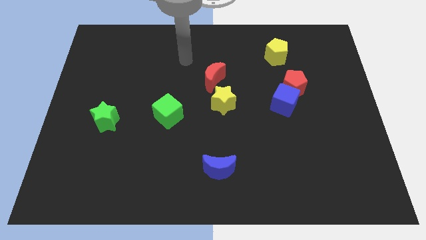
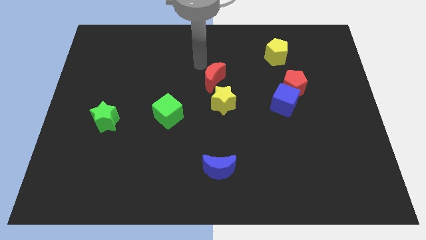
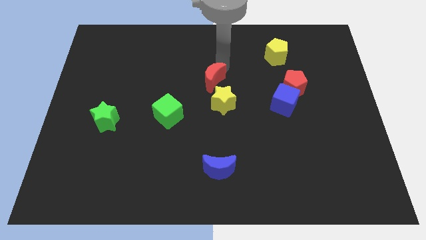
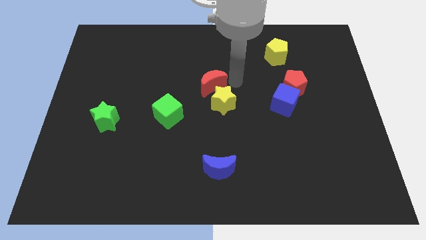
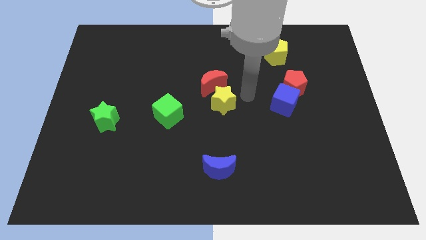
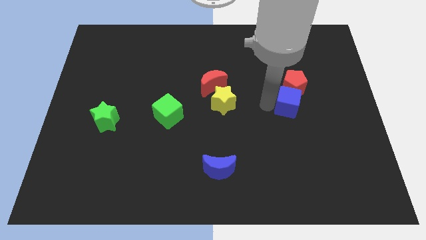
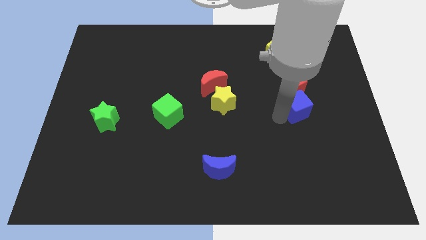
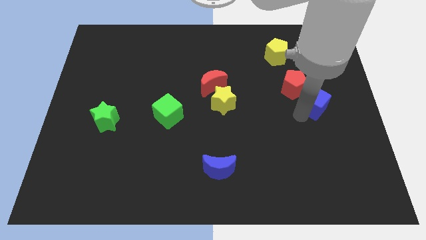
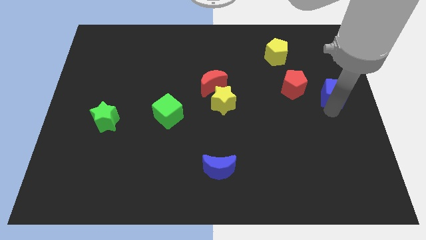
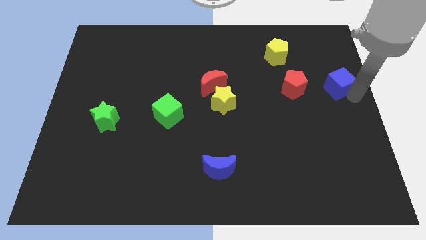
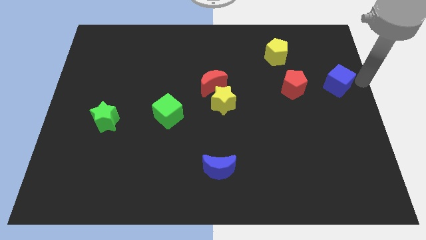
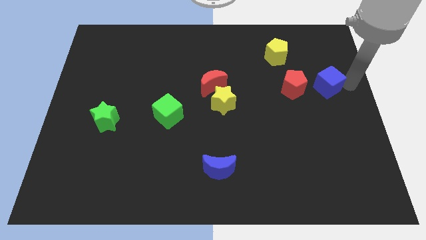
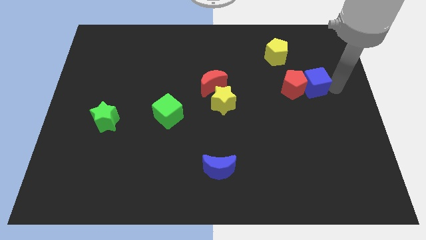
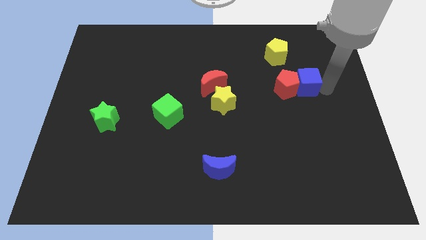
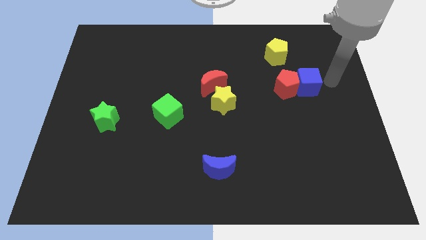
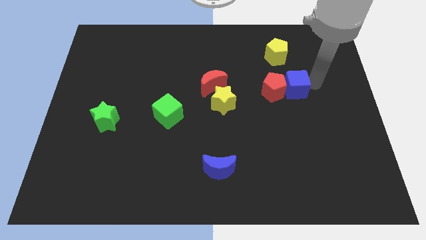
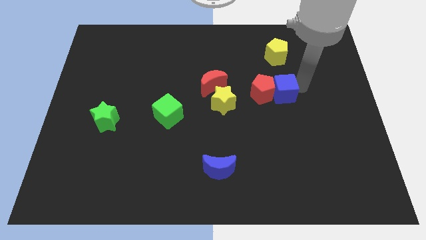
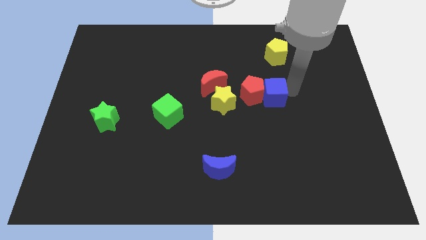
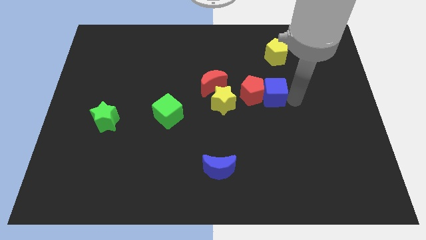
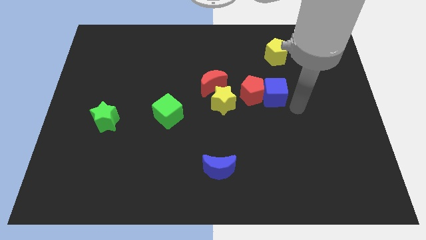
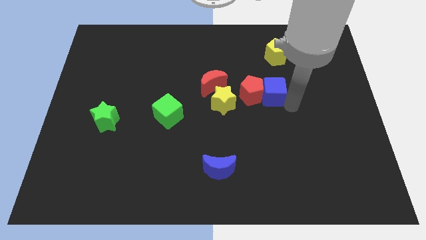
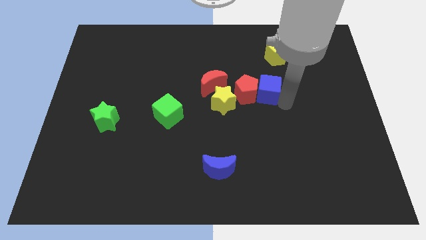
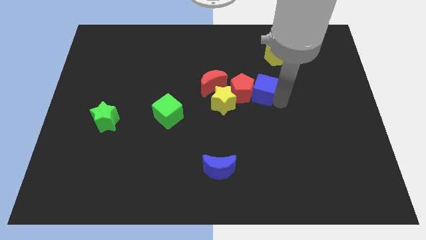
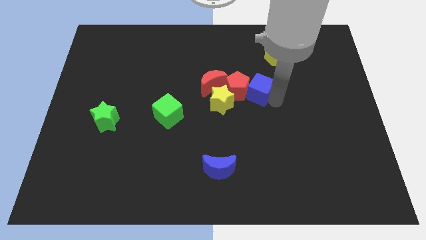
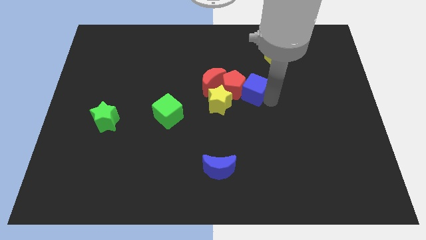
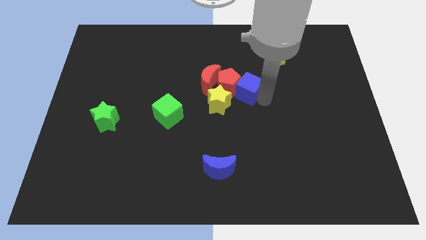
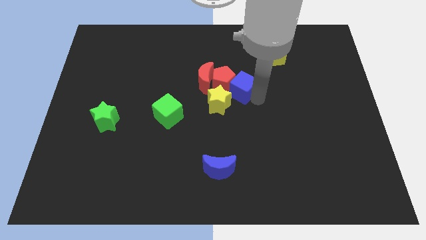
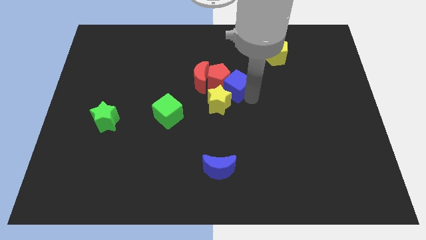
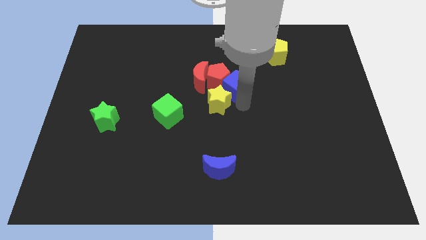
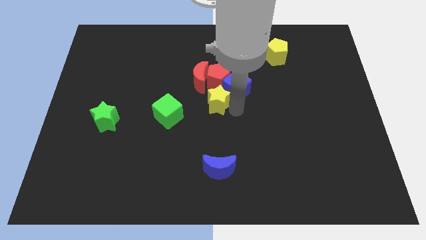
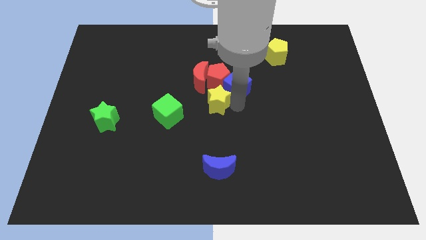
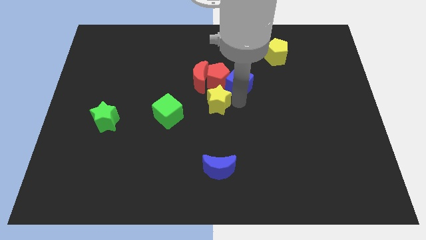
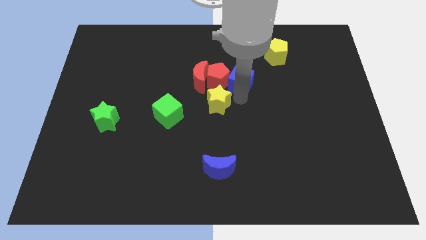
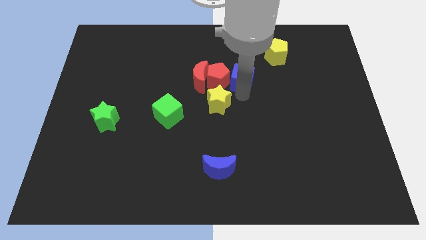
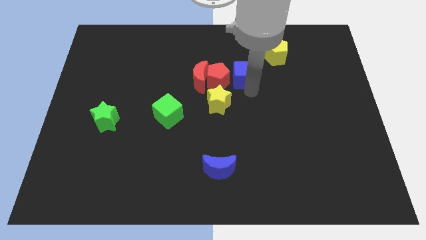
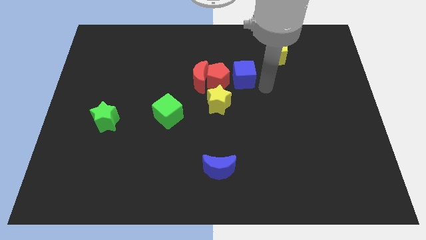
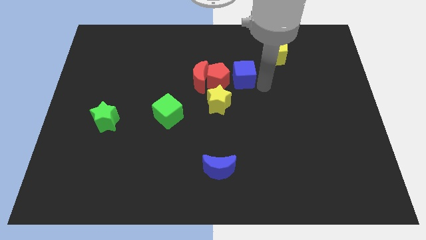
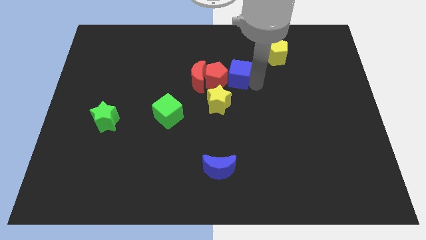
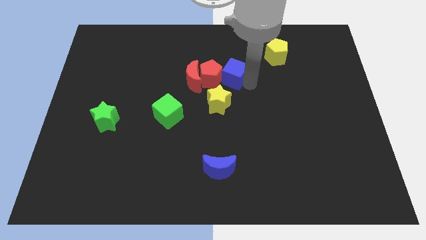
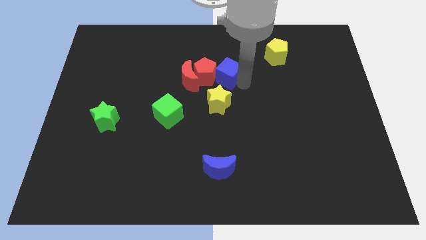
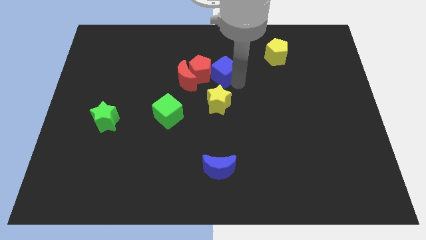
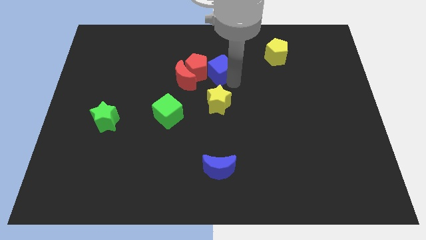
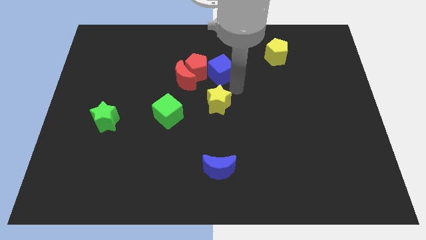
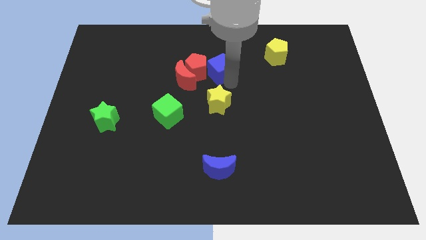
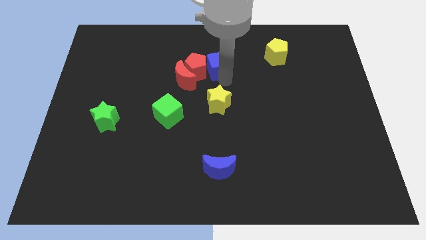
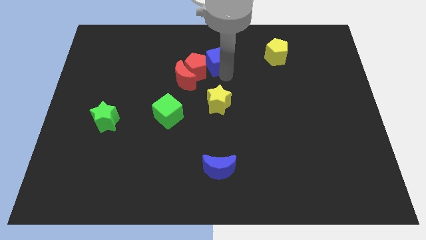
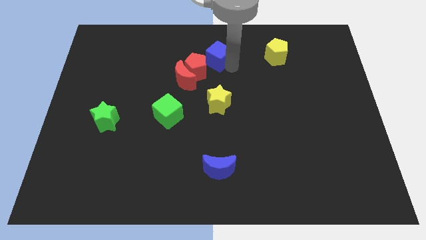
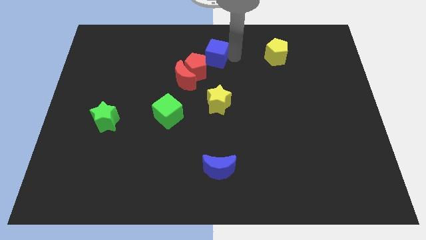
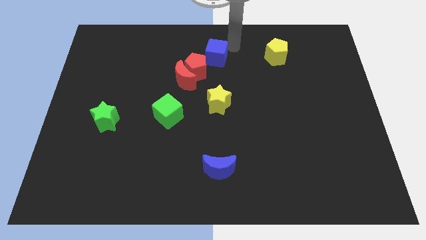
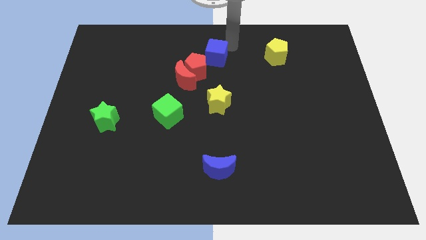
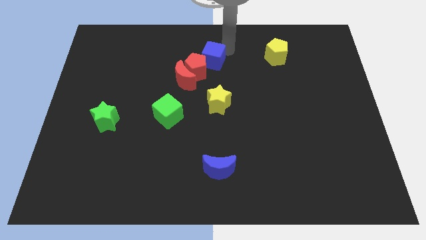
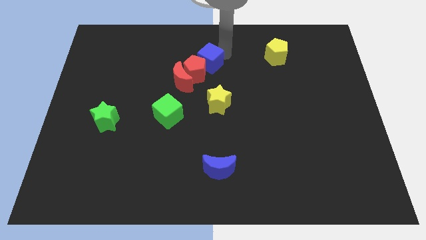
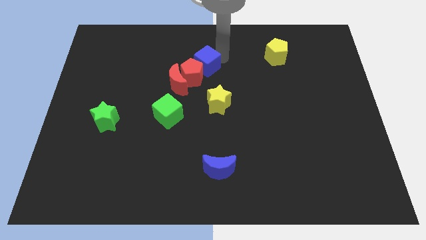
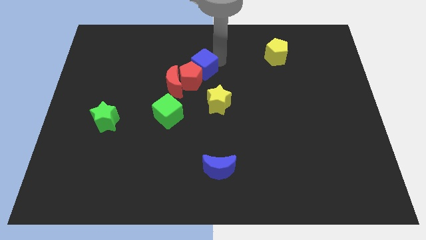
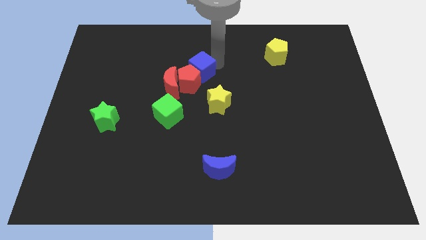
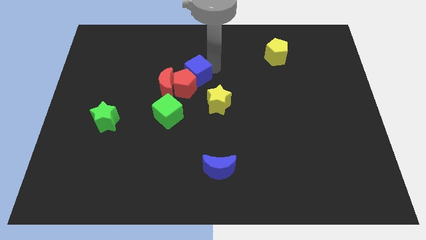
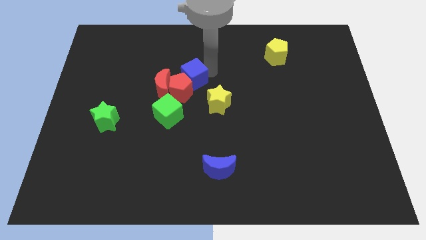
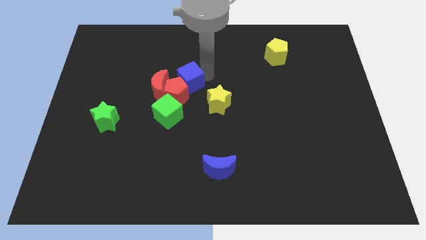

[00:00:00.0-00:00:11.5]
push the blue cube to the top side of the green cube

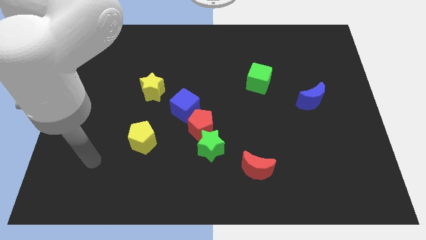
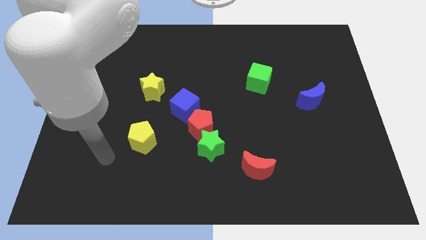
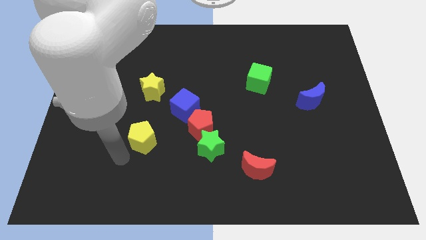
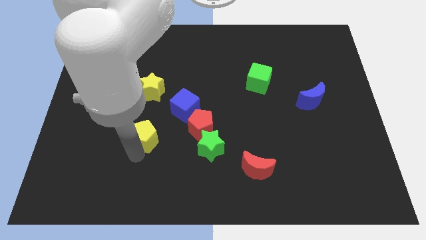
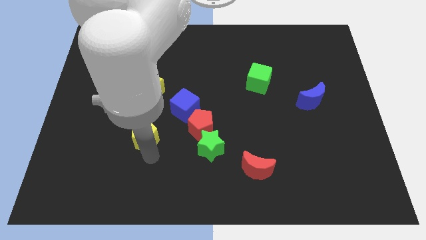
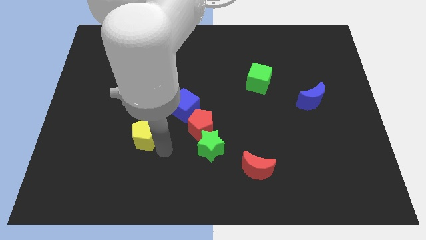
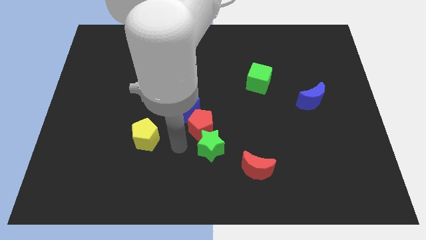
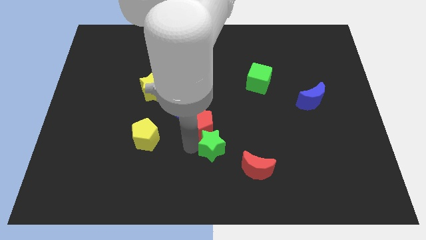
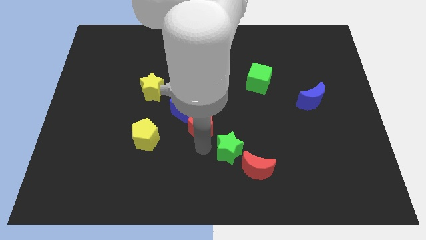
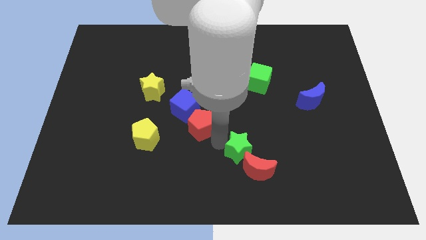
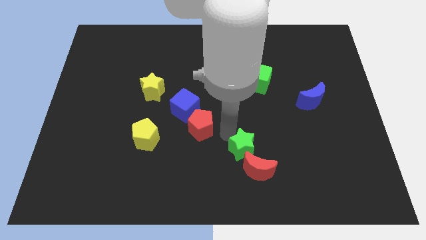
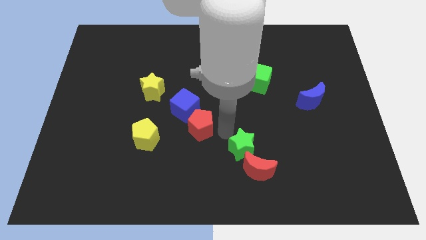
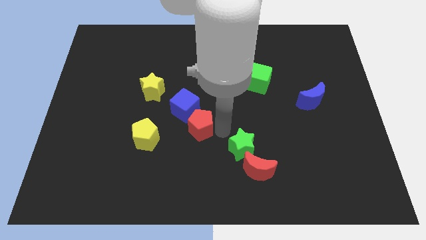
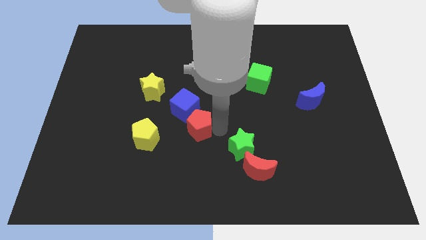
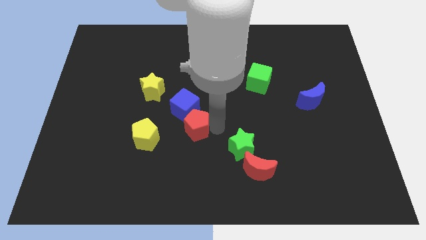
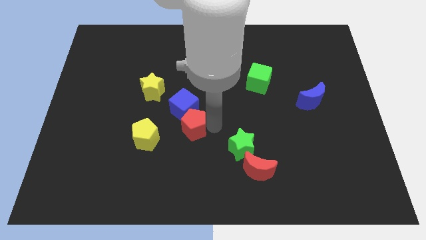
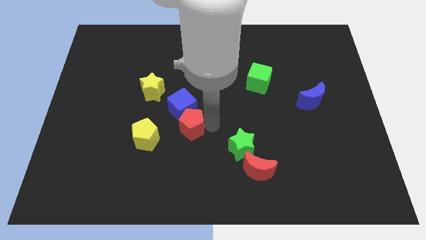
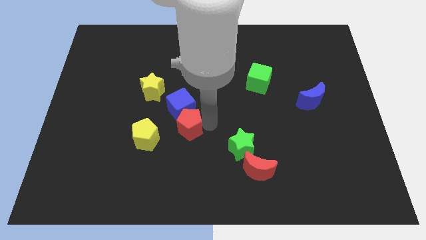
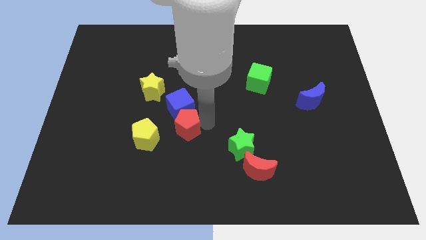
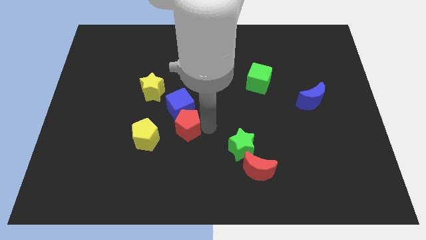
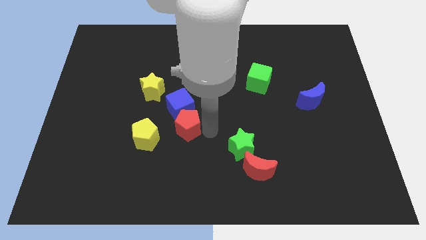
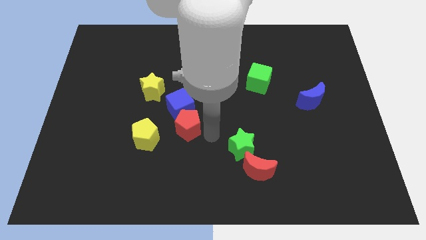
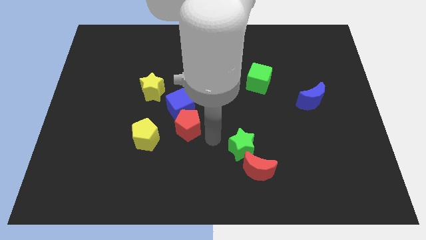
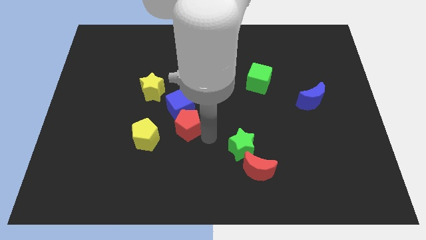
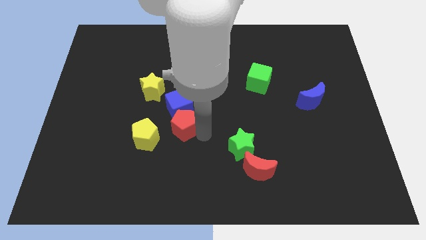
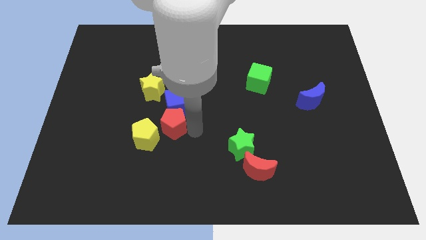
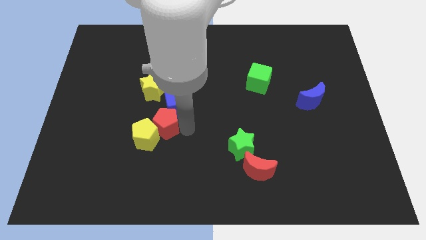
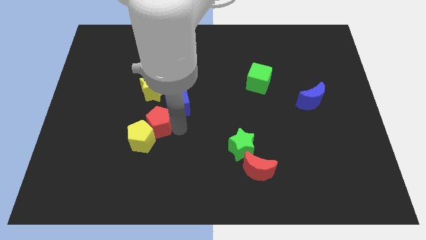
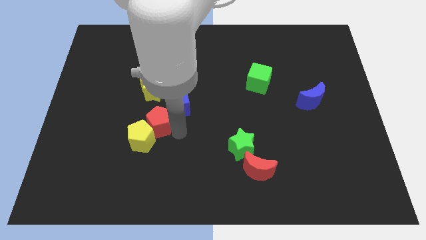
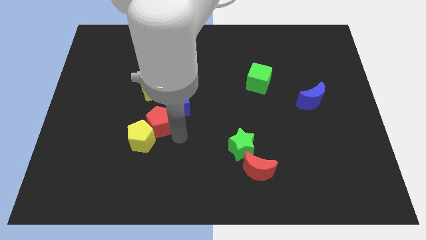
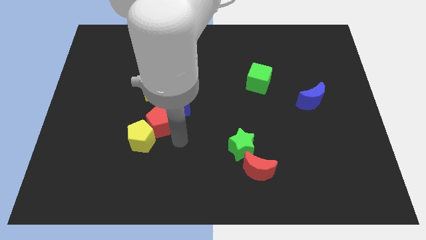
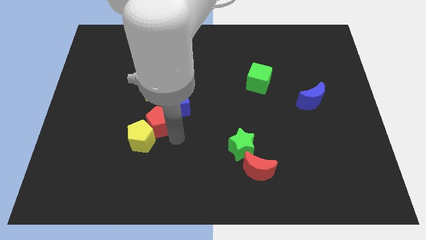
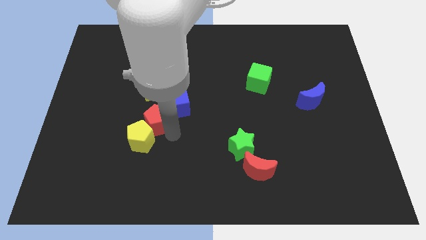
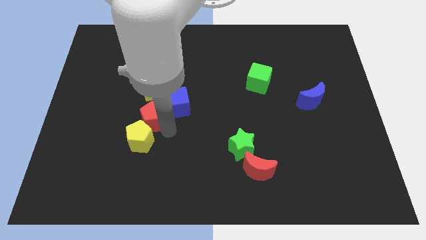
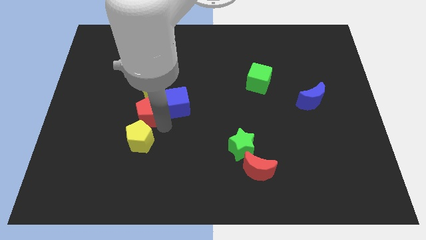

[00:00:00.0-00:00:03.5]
push the red pentagon to the bottom left of the yellow star
